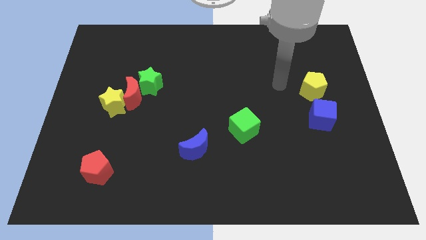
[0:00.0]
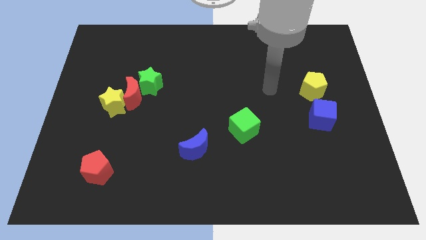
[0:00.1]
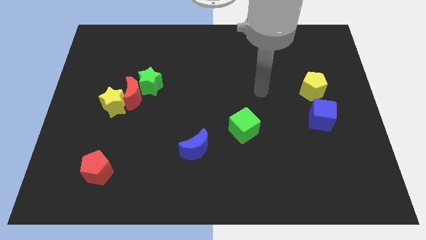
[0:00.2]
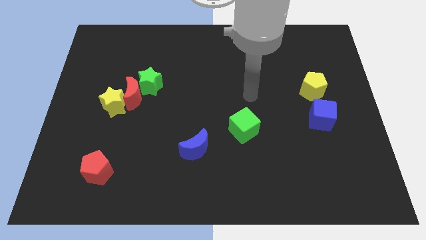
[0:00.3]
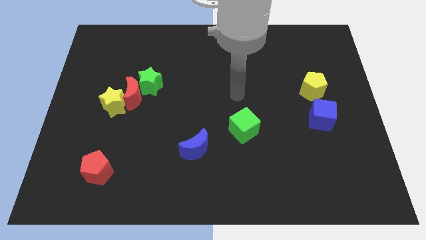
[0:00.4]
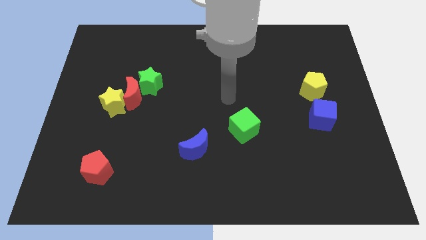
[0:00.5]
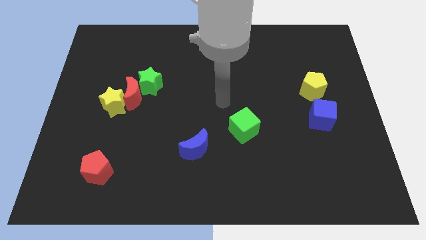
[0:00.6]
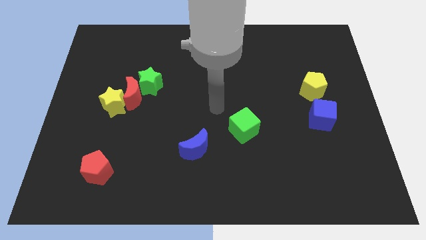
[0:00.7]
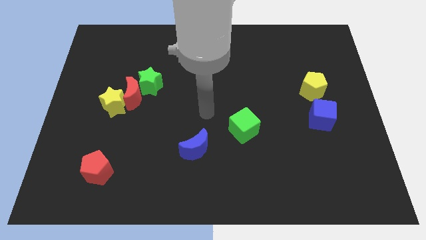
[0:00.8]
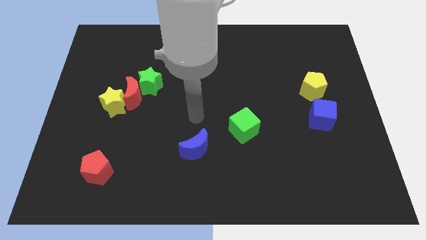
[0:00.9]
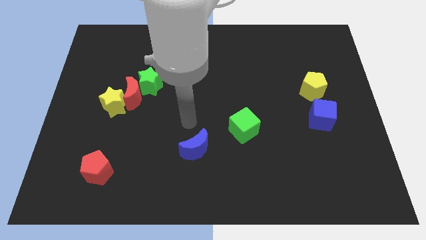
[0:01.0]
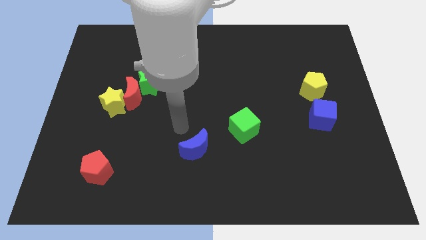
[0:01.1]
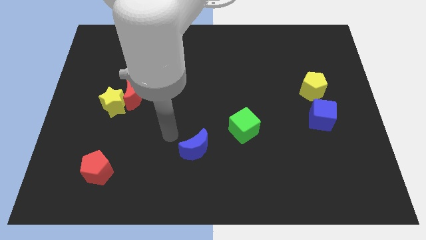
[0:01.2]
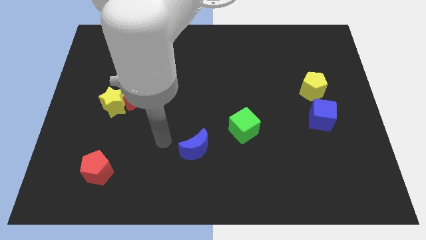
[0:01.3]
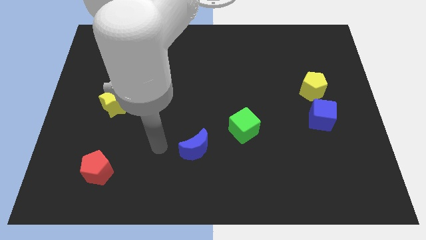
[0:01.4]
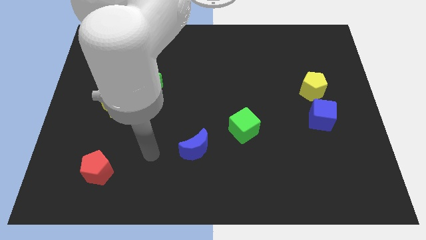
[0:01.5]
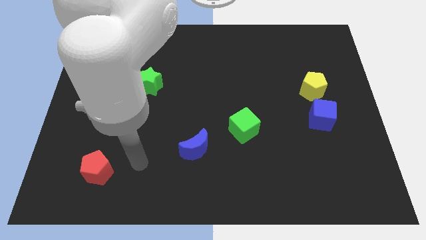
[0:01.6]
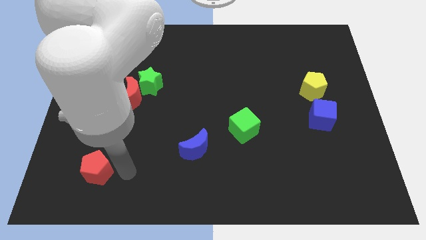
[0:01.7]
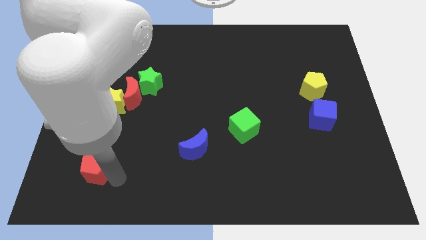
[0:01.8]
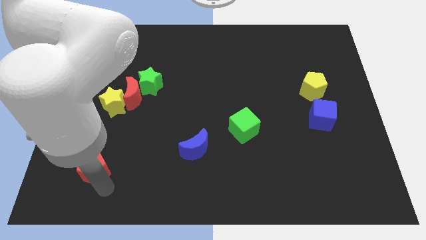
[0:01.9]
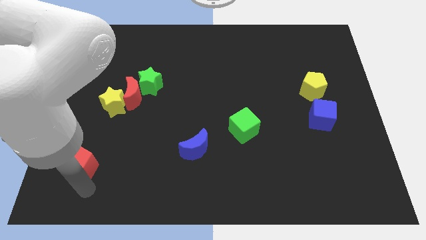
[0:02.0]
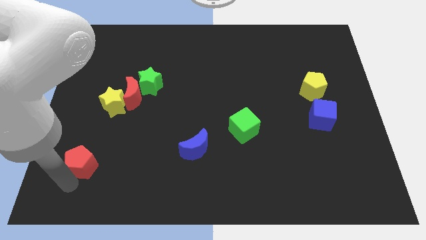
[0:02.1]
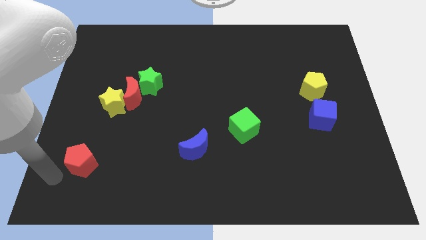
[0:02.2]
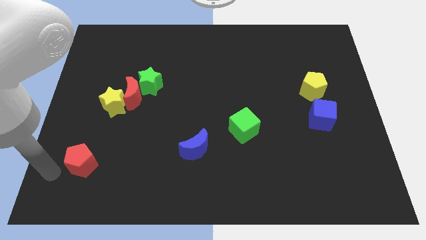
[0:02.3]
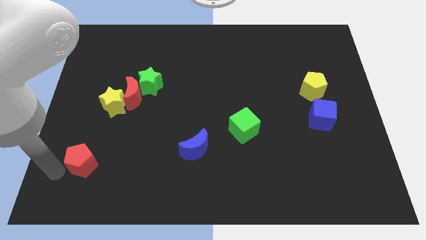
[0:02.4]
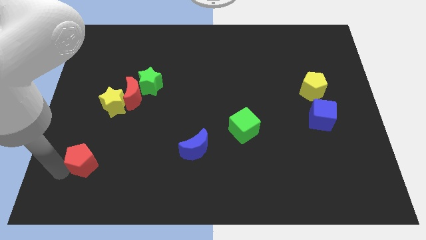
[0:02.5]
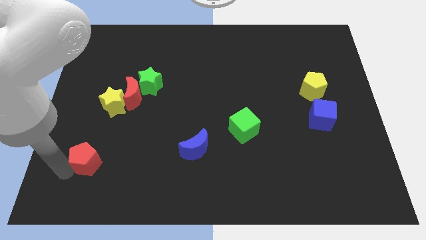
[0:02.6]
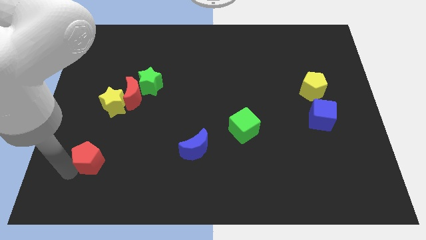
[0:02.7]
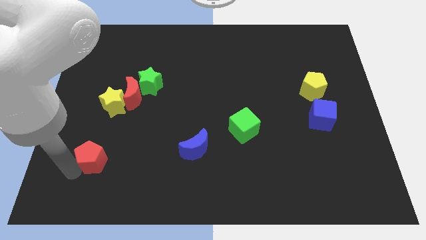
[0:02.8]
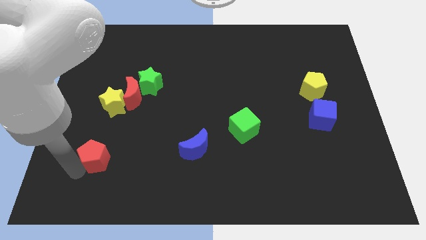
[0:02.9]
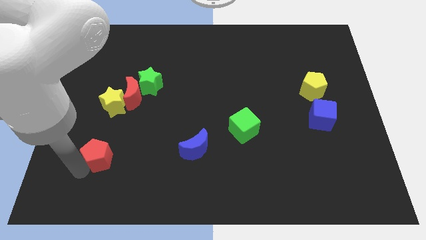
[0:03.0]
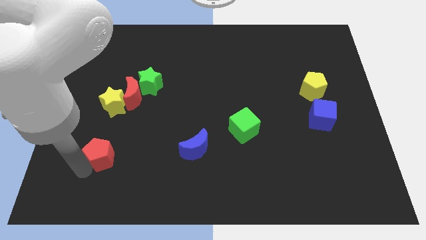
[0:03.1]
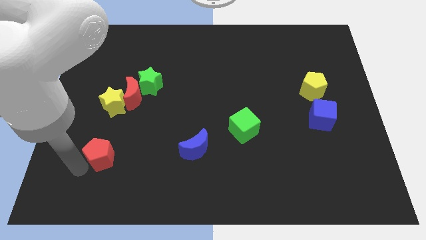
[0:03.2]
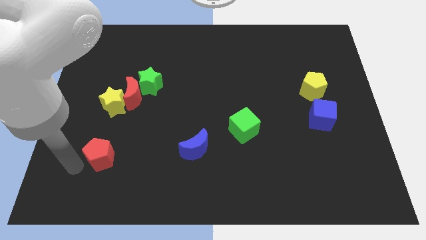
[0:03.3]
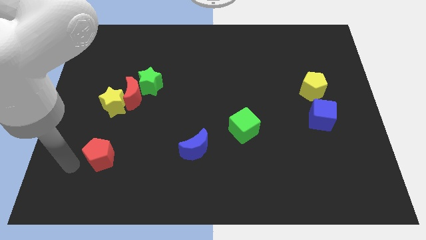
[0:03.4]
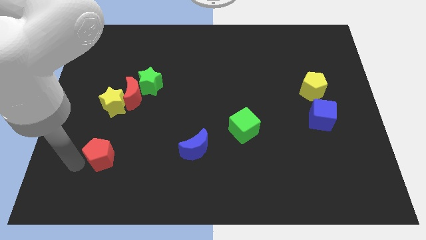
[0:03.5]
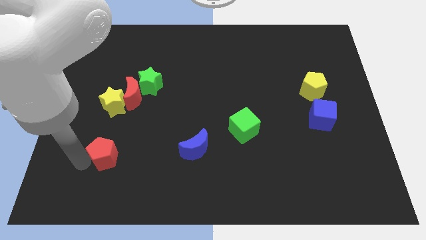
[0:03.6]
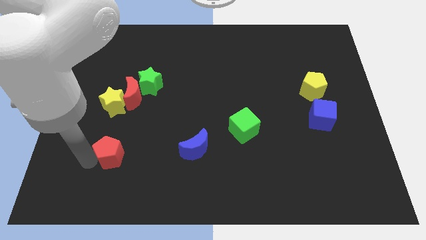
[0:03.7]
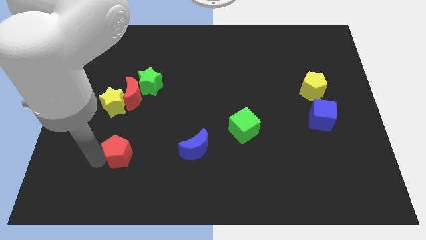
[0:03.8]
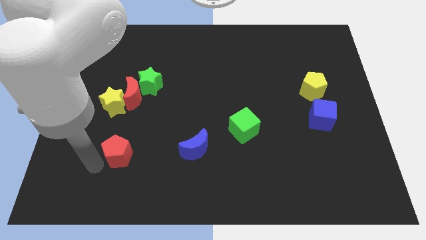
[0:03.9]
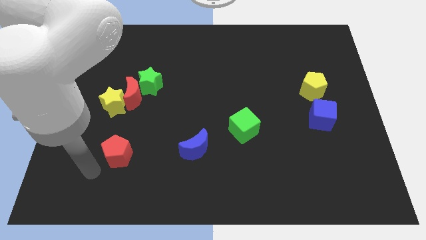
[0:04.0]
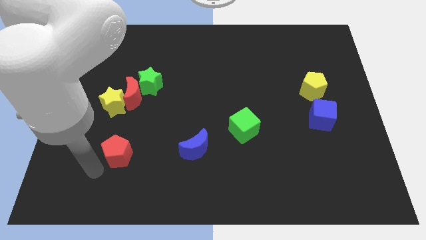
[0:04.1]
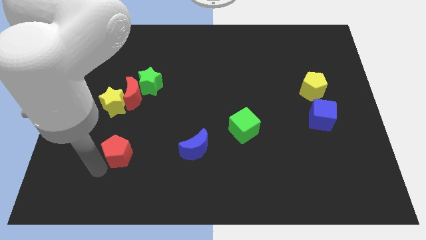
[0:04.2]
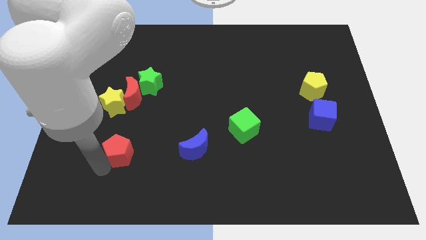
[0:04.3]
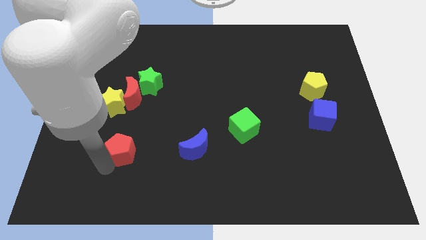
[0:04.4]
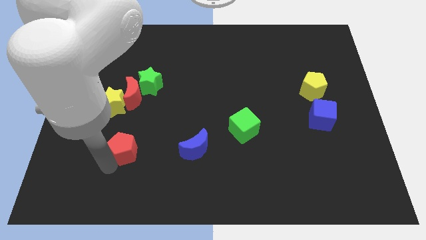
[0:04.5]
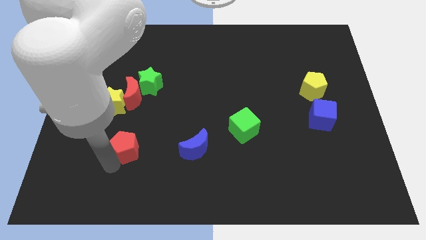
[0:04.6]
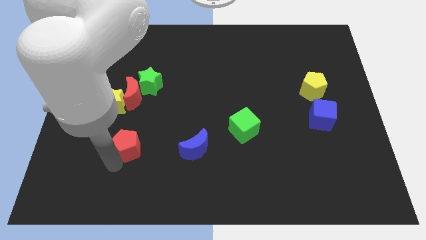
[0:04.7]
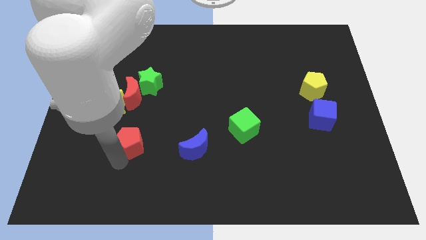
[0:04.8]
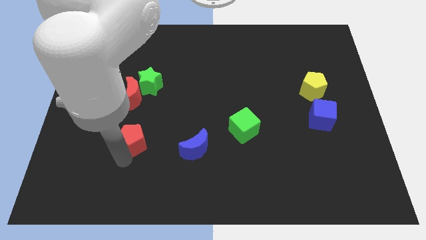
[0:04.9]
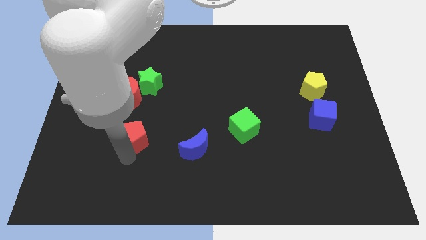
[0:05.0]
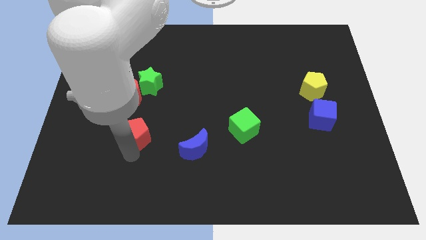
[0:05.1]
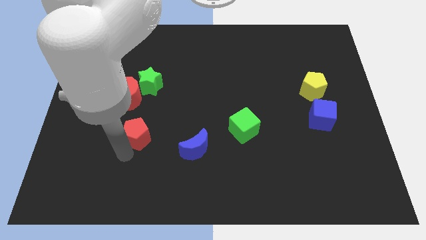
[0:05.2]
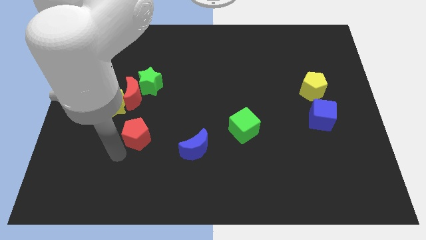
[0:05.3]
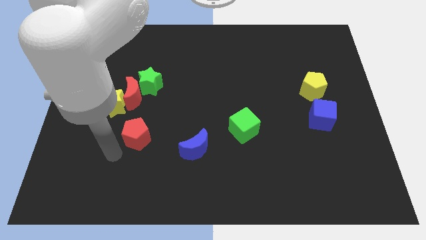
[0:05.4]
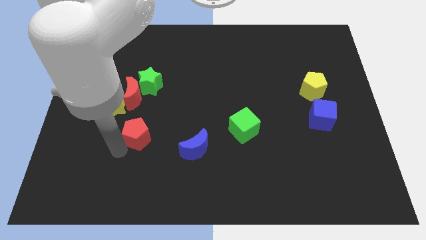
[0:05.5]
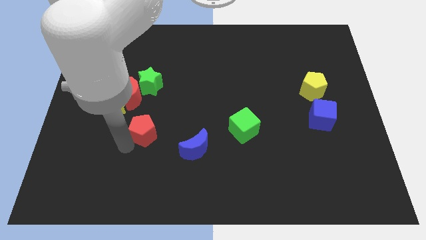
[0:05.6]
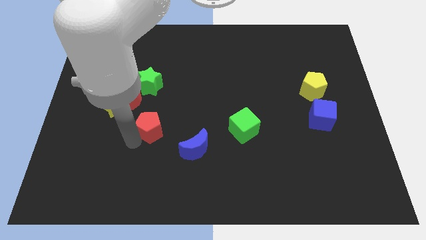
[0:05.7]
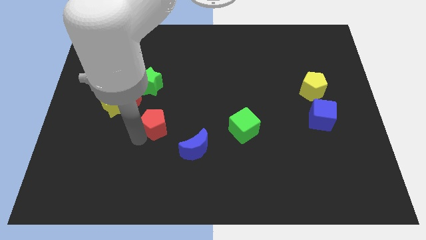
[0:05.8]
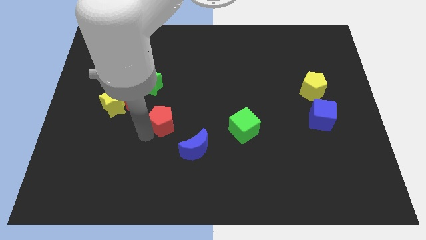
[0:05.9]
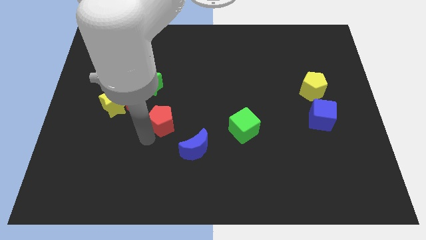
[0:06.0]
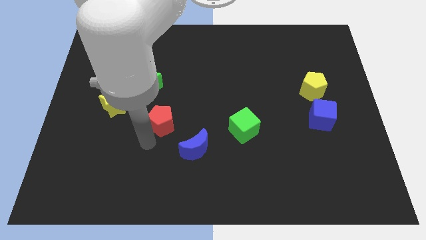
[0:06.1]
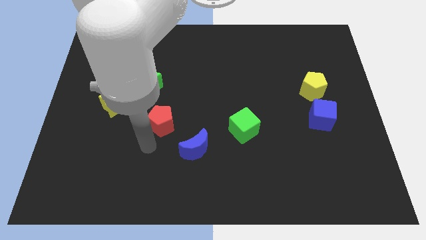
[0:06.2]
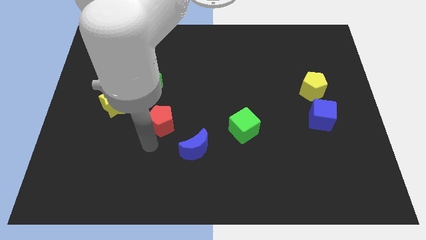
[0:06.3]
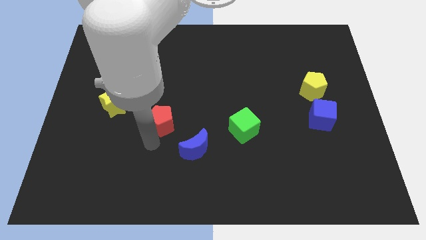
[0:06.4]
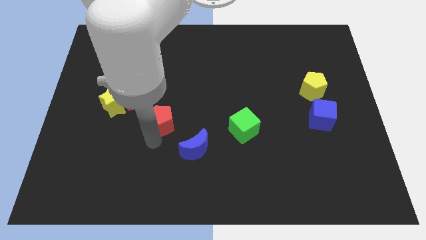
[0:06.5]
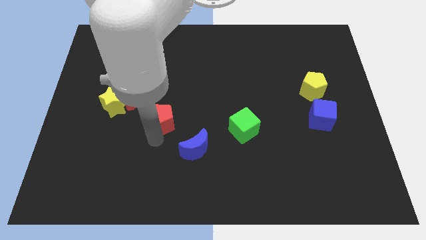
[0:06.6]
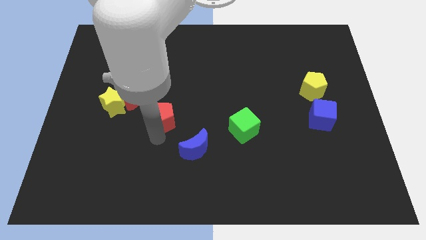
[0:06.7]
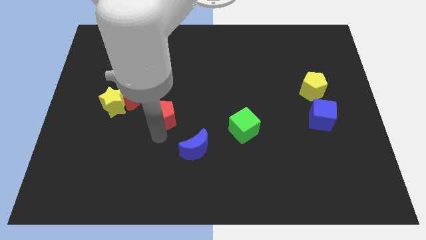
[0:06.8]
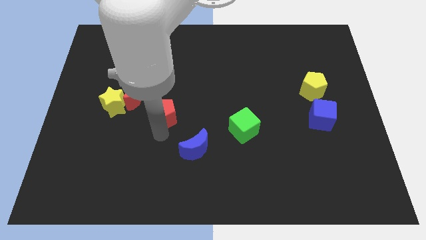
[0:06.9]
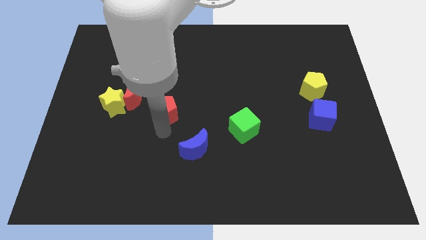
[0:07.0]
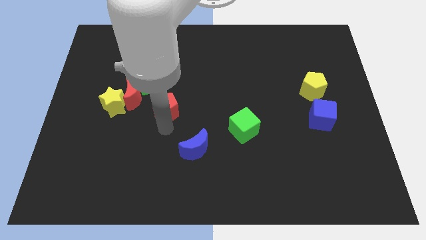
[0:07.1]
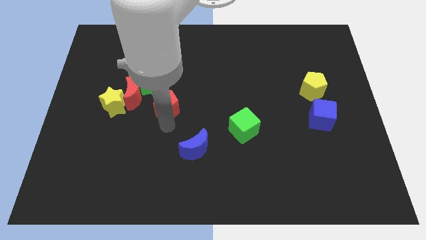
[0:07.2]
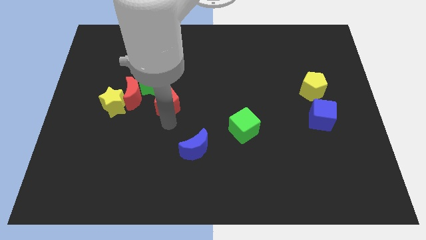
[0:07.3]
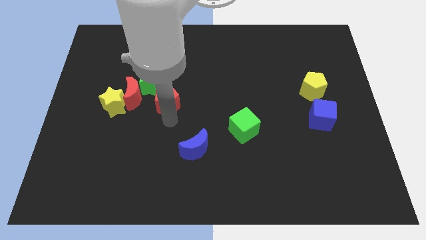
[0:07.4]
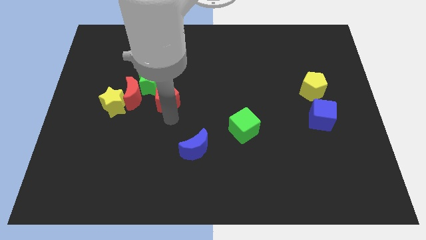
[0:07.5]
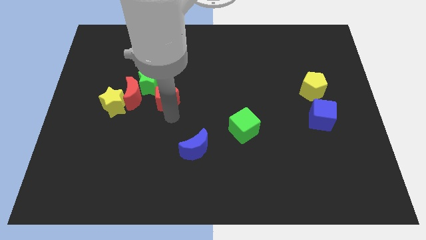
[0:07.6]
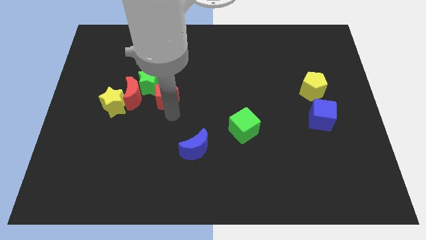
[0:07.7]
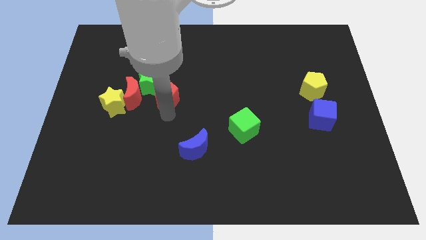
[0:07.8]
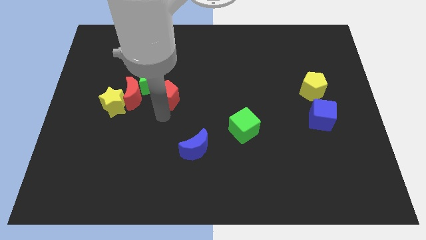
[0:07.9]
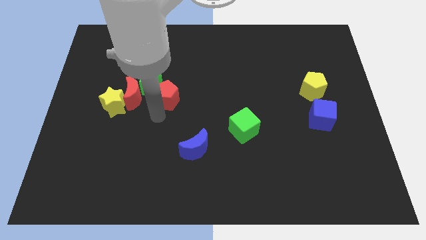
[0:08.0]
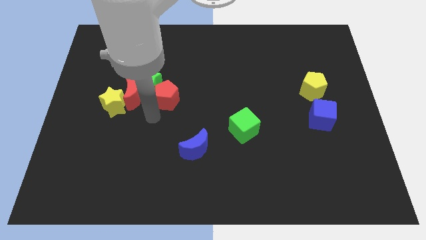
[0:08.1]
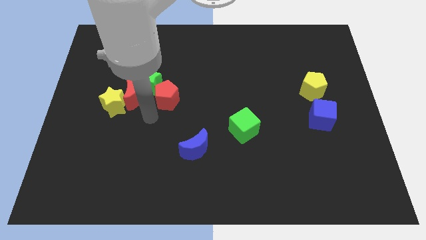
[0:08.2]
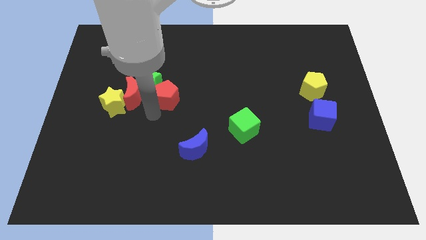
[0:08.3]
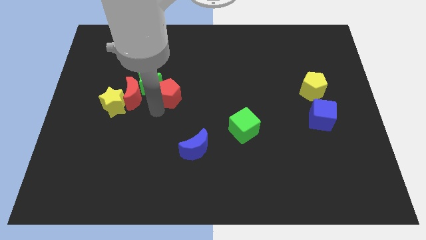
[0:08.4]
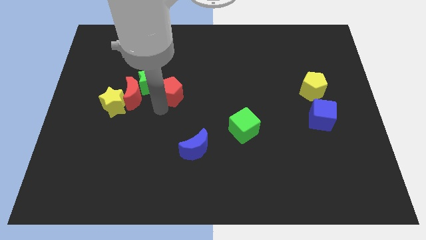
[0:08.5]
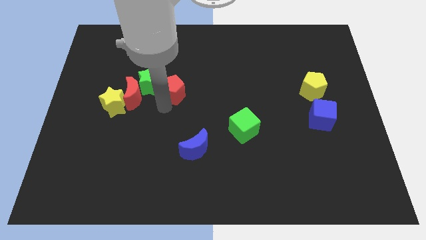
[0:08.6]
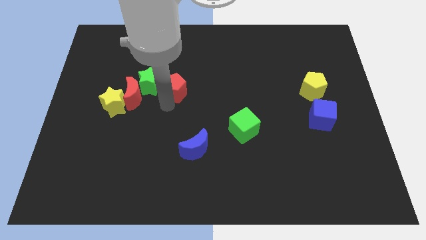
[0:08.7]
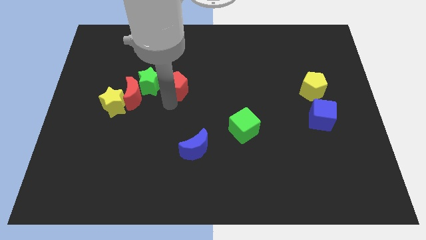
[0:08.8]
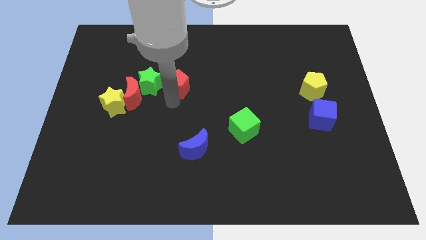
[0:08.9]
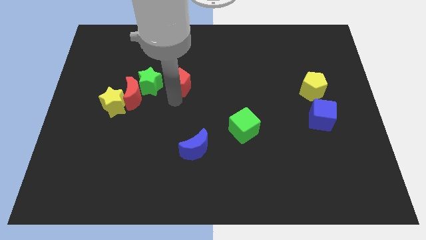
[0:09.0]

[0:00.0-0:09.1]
move the red pentagon to the top right side of the green star
